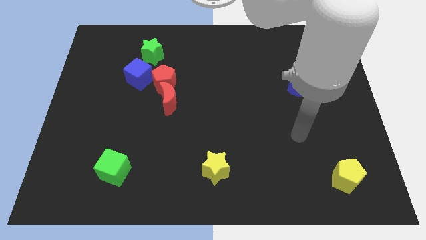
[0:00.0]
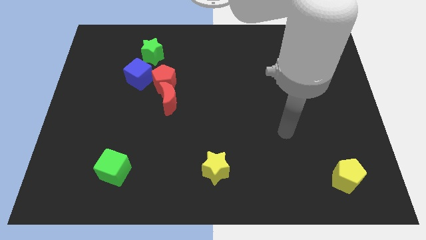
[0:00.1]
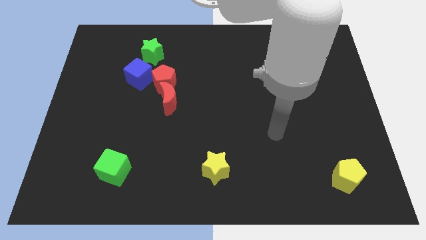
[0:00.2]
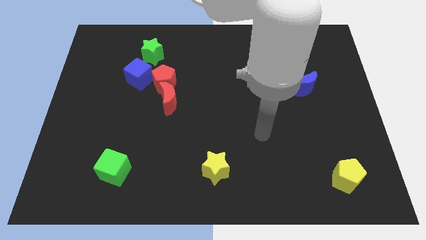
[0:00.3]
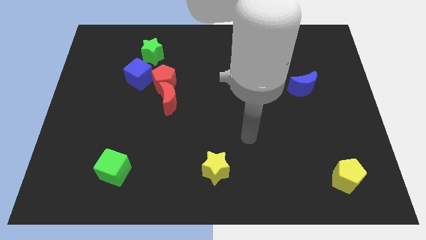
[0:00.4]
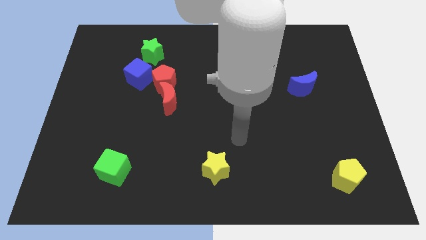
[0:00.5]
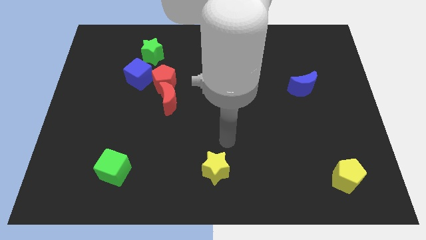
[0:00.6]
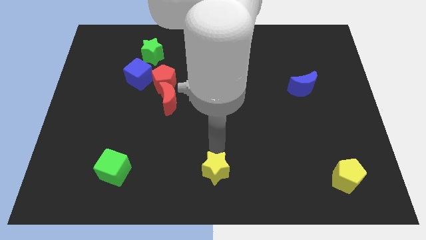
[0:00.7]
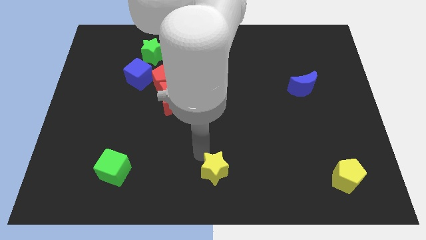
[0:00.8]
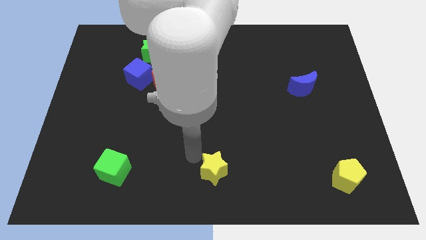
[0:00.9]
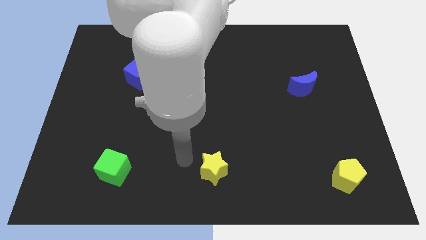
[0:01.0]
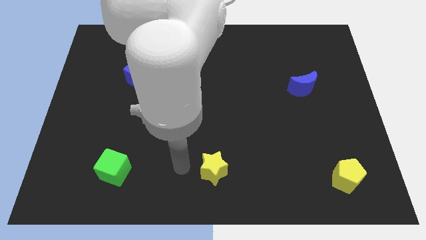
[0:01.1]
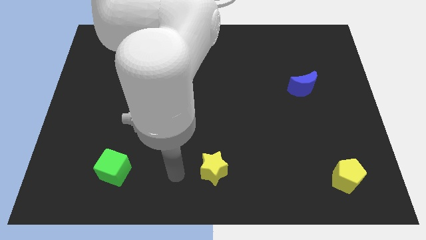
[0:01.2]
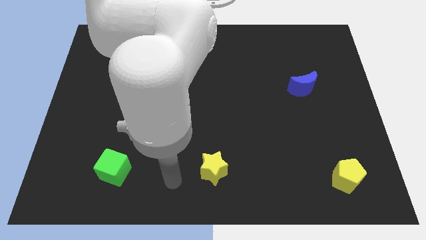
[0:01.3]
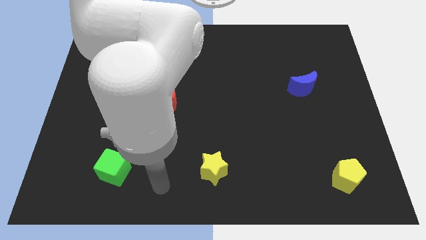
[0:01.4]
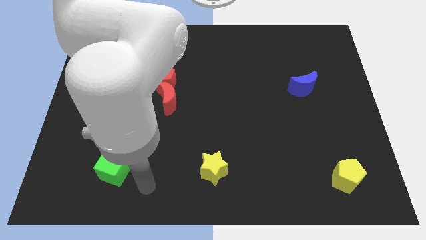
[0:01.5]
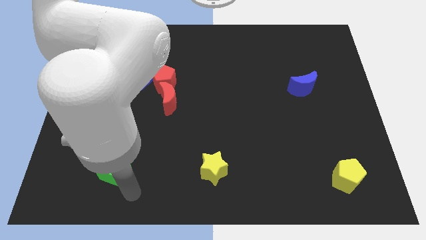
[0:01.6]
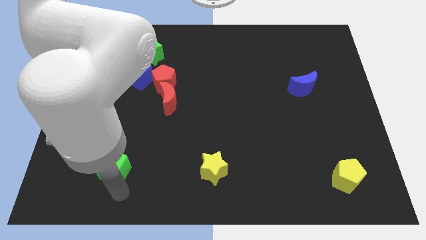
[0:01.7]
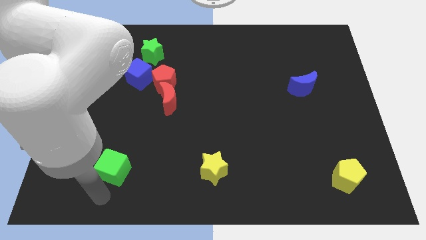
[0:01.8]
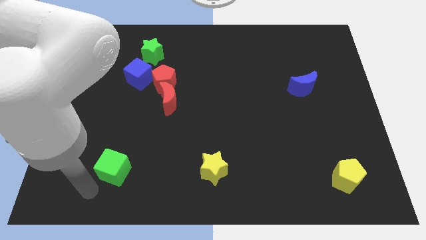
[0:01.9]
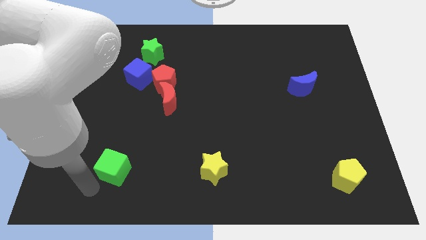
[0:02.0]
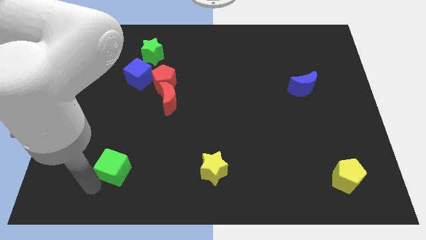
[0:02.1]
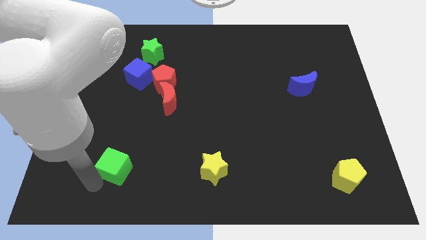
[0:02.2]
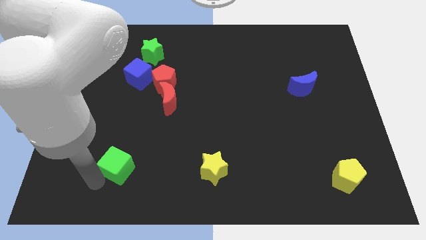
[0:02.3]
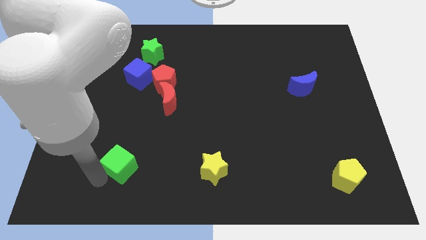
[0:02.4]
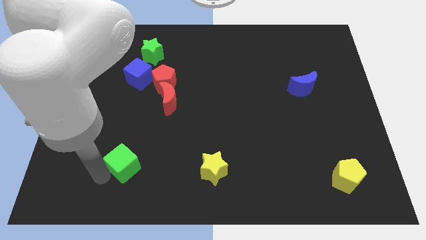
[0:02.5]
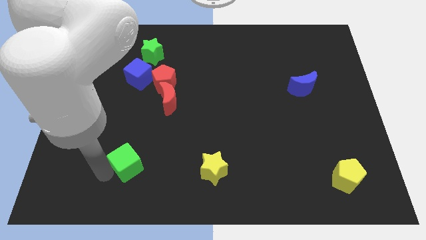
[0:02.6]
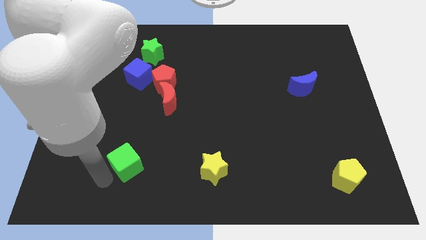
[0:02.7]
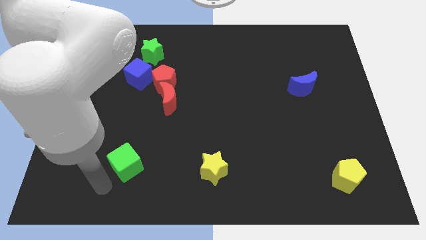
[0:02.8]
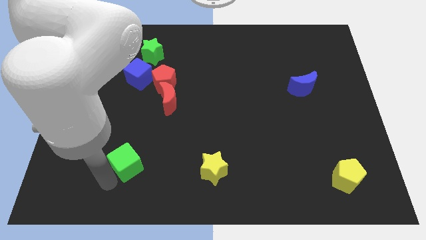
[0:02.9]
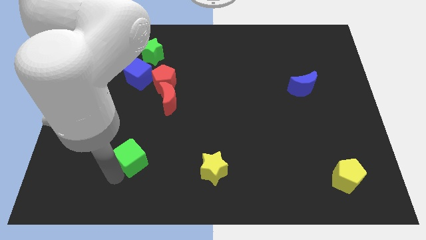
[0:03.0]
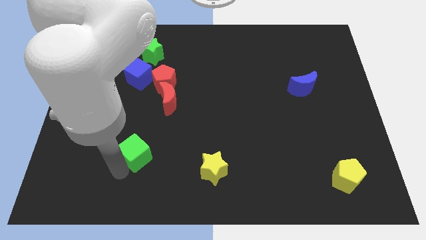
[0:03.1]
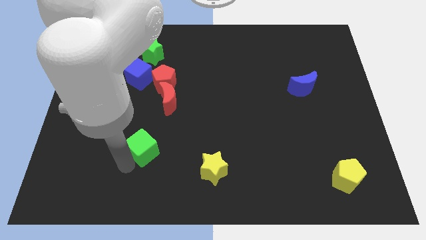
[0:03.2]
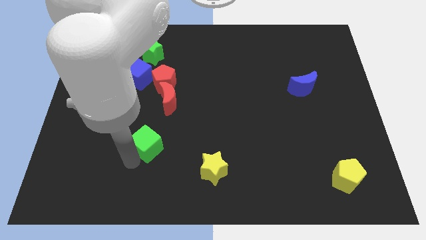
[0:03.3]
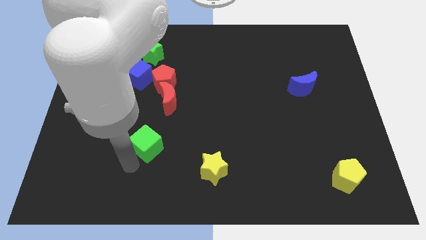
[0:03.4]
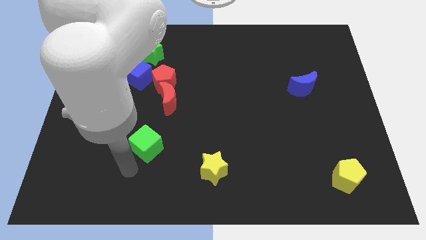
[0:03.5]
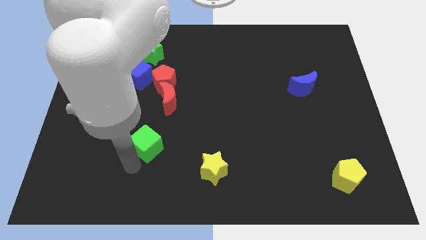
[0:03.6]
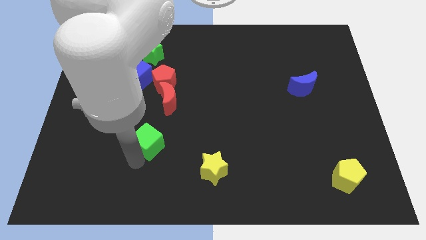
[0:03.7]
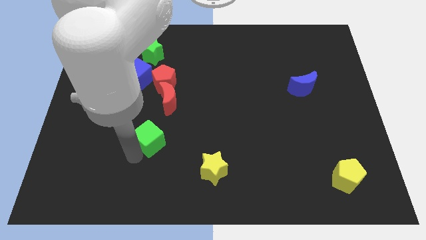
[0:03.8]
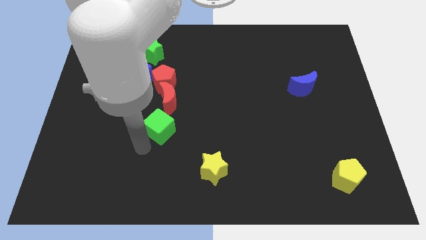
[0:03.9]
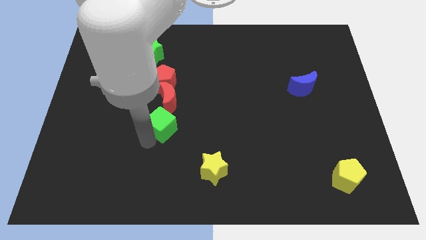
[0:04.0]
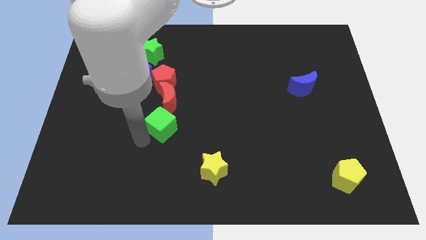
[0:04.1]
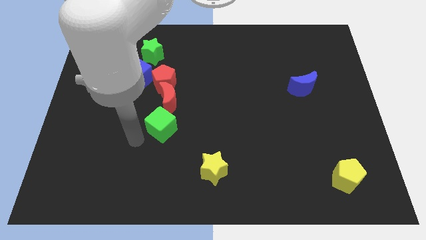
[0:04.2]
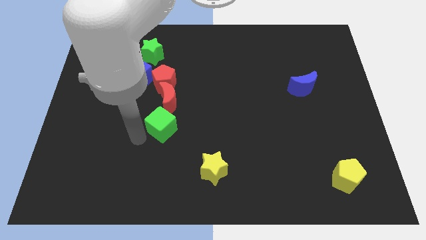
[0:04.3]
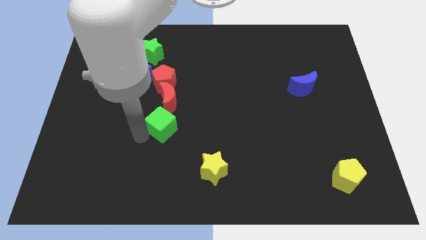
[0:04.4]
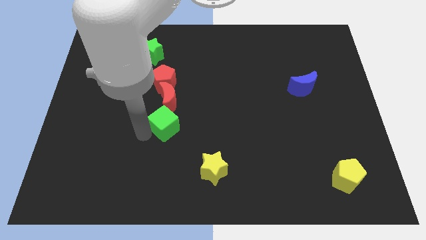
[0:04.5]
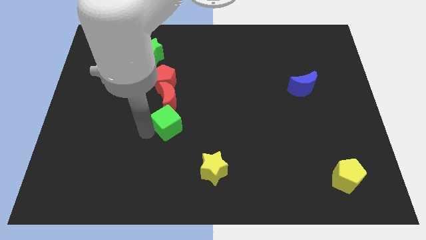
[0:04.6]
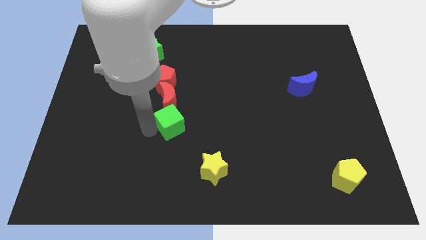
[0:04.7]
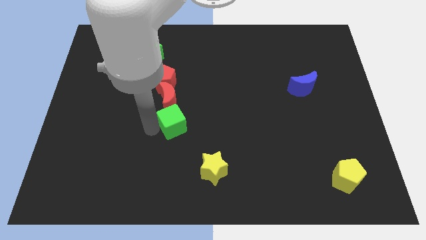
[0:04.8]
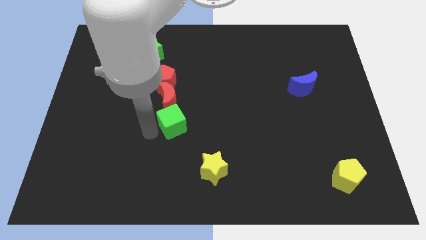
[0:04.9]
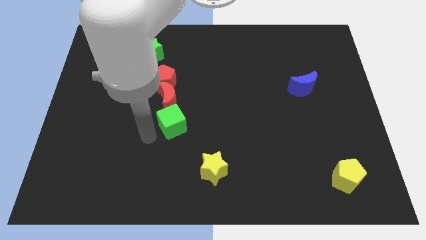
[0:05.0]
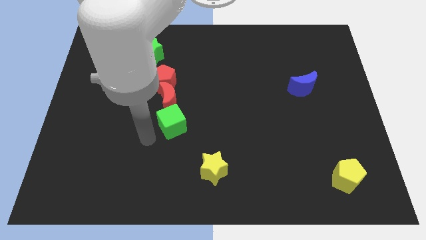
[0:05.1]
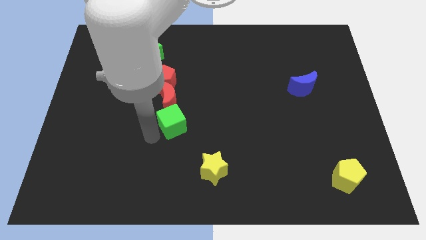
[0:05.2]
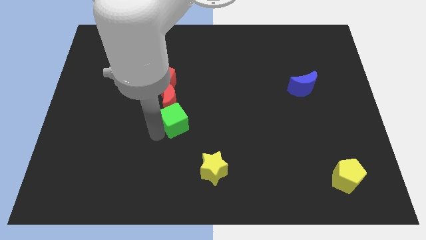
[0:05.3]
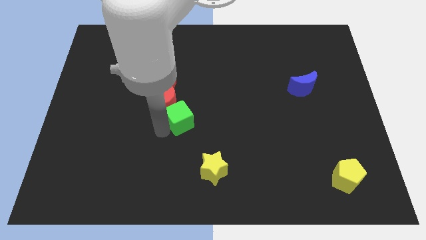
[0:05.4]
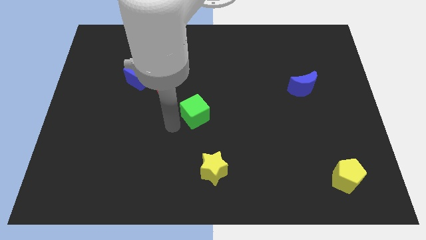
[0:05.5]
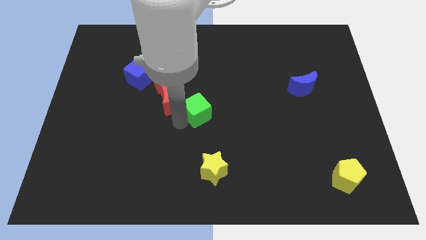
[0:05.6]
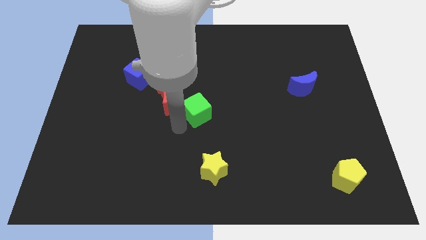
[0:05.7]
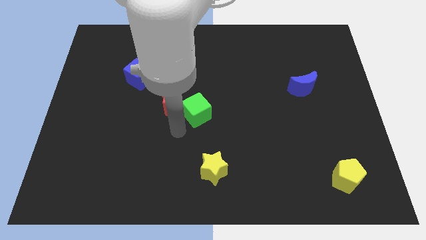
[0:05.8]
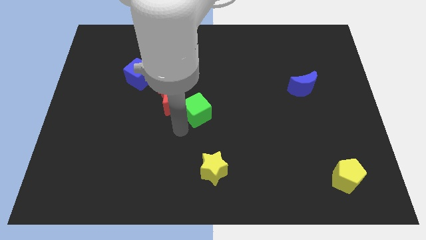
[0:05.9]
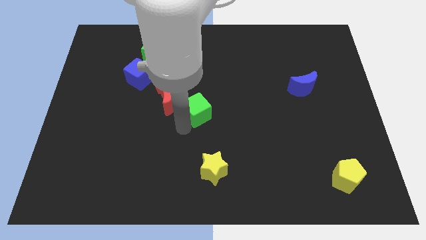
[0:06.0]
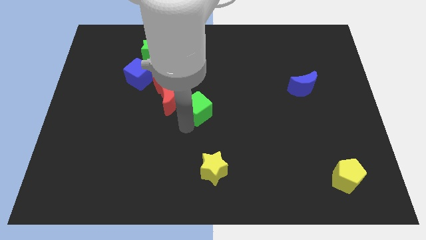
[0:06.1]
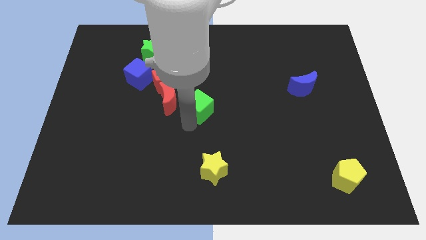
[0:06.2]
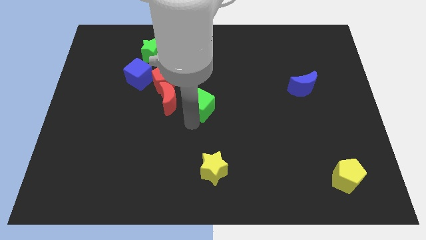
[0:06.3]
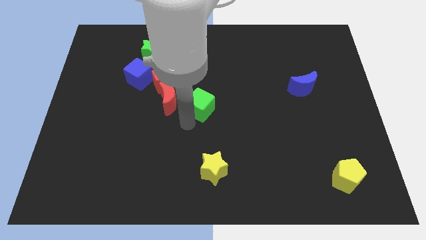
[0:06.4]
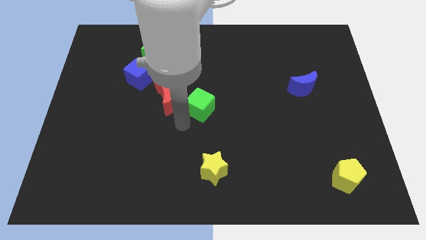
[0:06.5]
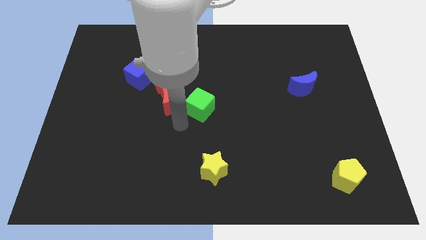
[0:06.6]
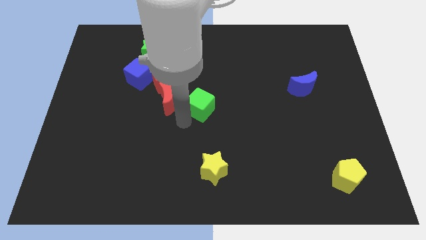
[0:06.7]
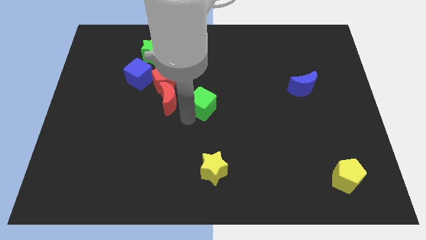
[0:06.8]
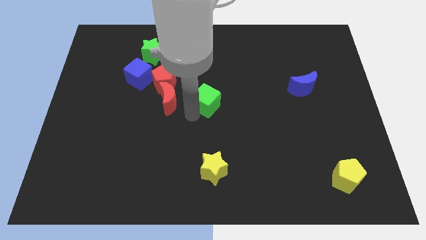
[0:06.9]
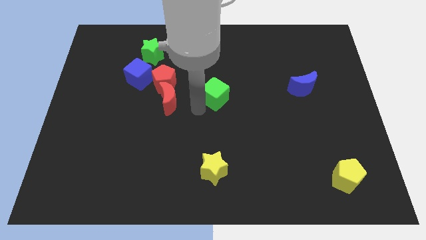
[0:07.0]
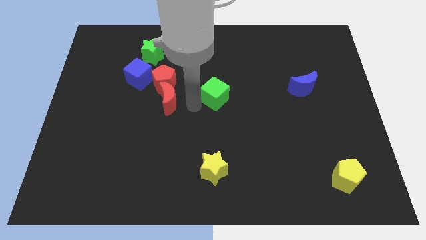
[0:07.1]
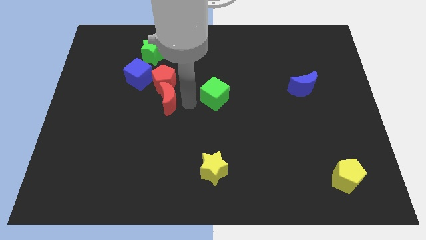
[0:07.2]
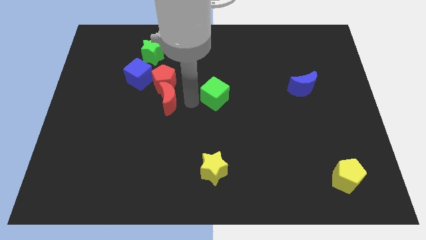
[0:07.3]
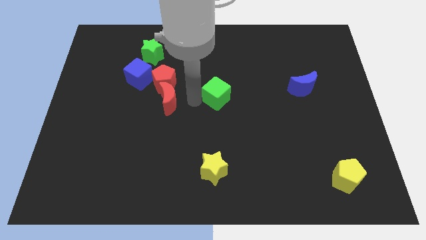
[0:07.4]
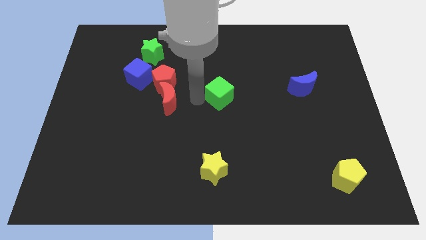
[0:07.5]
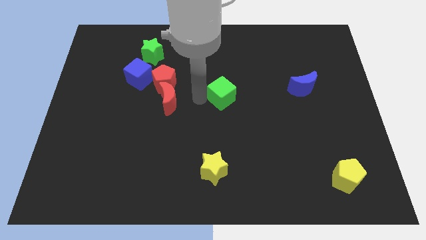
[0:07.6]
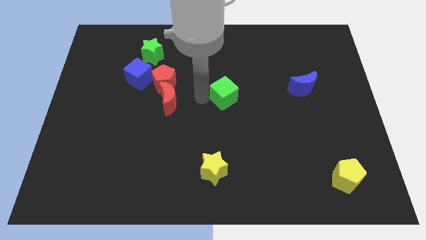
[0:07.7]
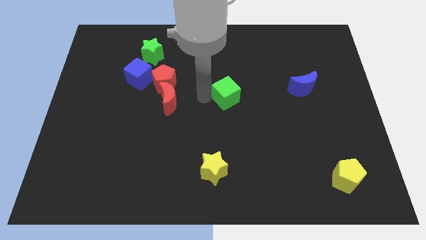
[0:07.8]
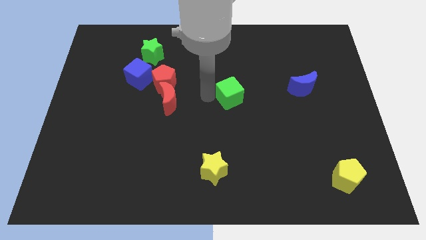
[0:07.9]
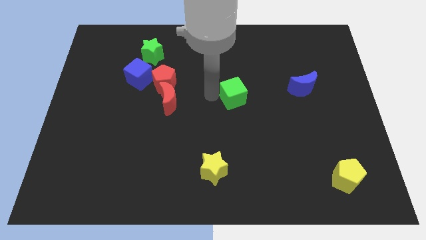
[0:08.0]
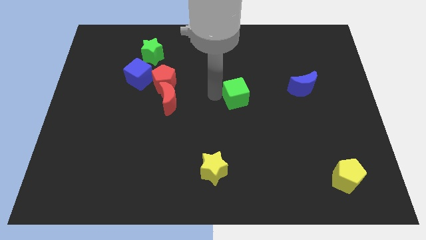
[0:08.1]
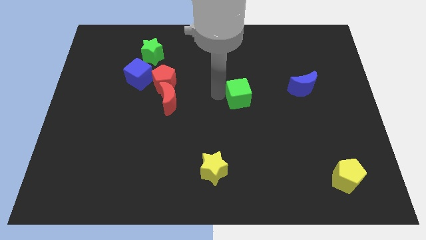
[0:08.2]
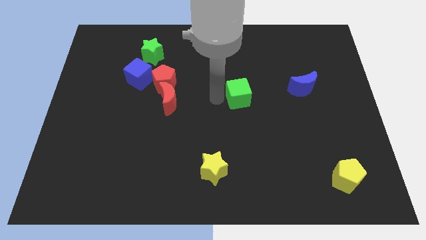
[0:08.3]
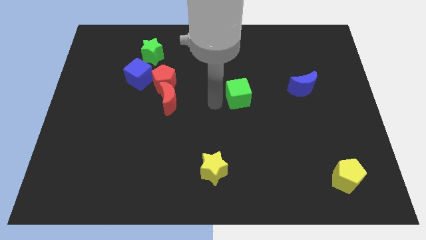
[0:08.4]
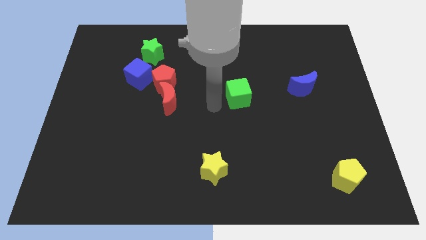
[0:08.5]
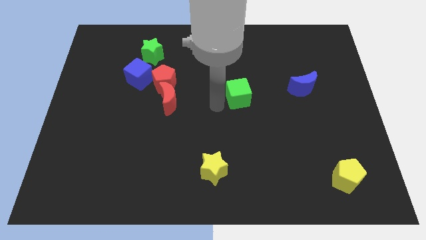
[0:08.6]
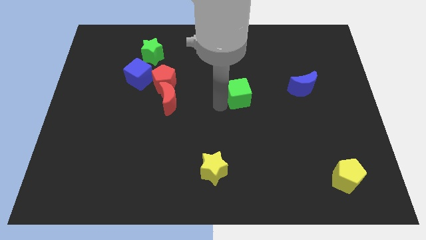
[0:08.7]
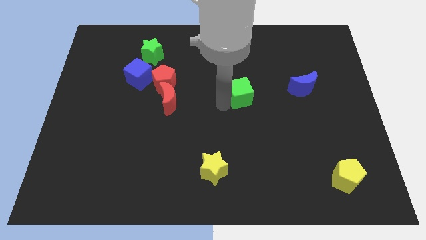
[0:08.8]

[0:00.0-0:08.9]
put the green cube to the left side of the blue moon
